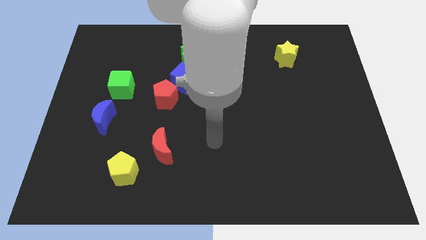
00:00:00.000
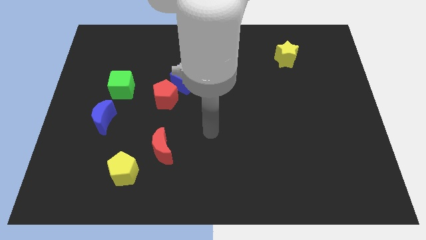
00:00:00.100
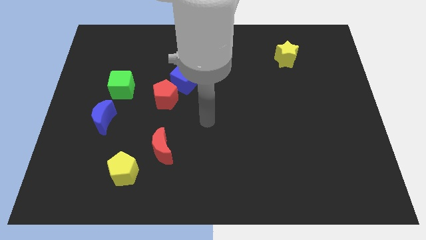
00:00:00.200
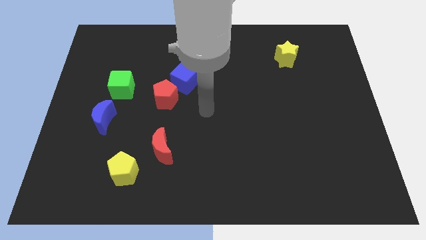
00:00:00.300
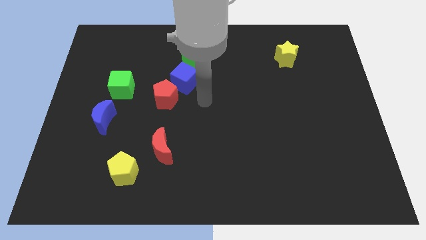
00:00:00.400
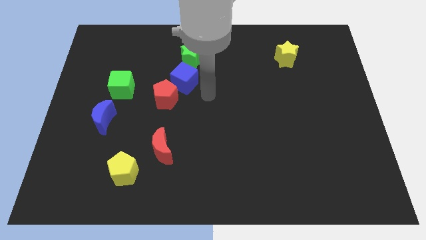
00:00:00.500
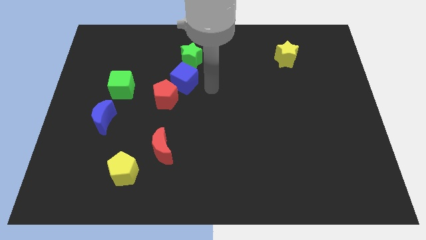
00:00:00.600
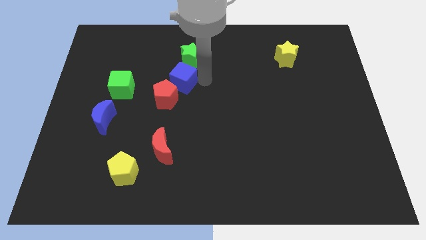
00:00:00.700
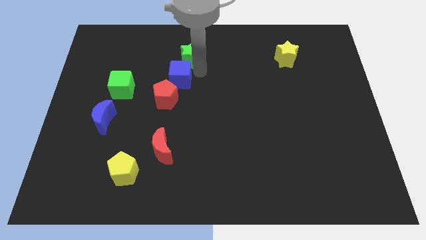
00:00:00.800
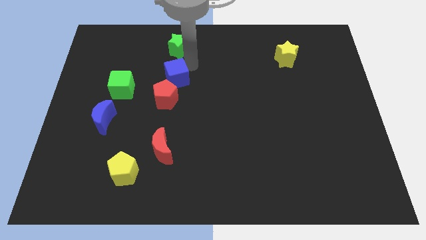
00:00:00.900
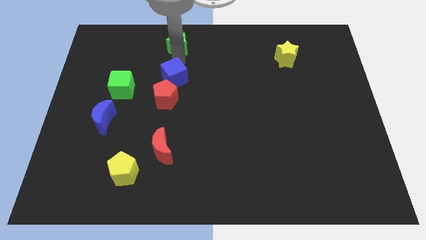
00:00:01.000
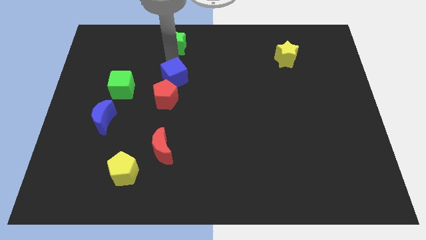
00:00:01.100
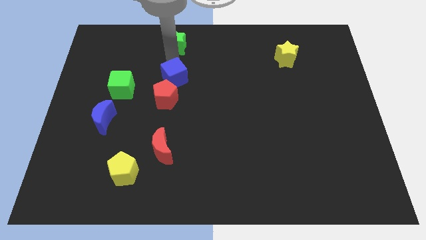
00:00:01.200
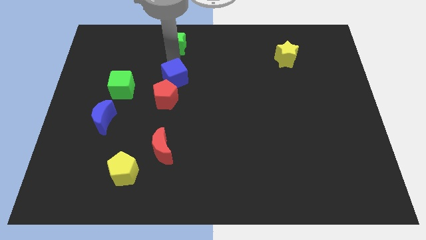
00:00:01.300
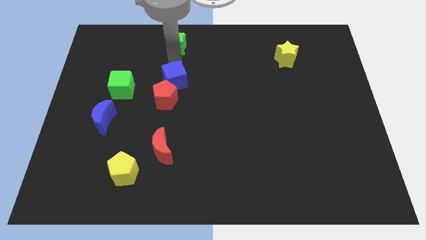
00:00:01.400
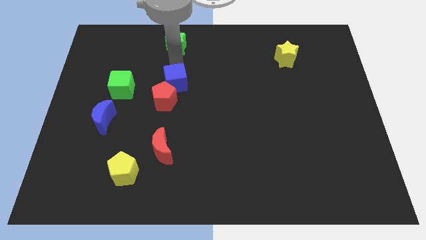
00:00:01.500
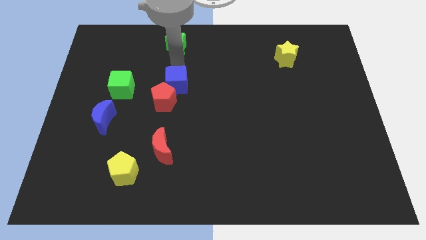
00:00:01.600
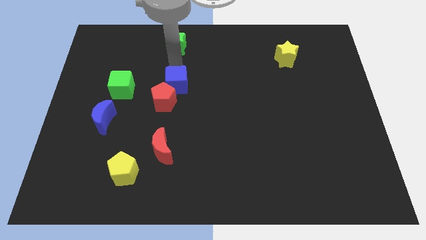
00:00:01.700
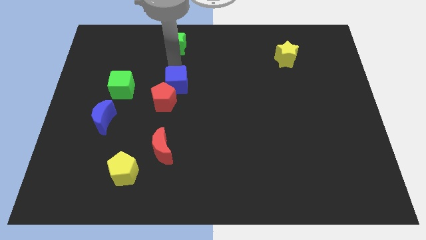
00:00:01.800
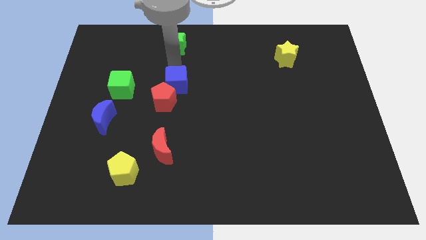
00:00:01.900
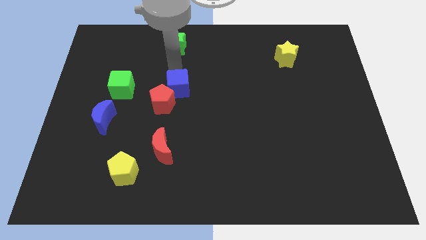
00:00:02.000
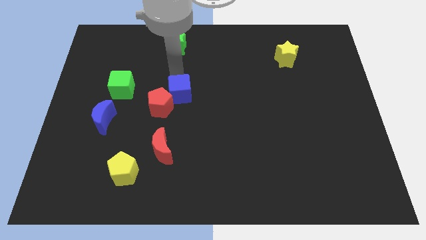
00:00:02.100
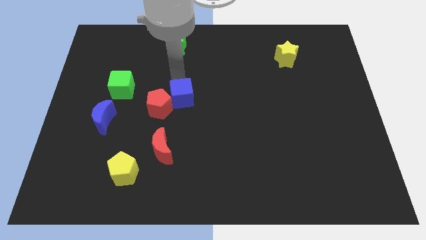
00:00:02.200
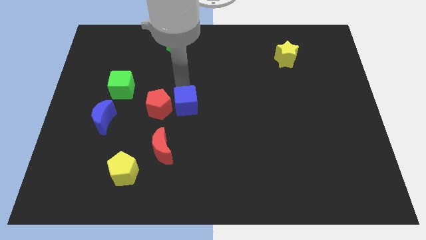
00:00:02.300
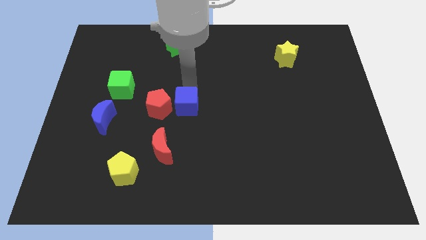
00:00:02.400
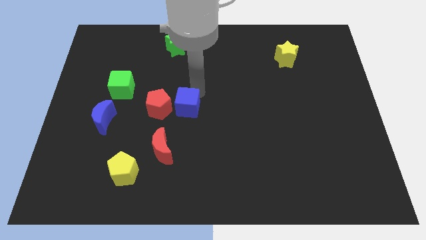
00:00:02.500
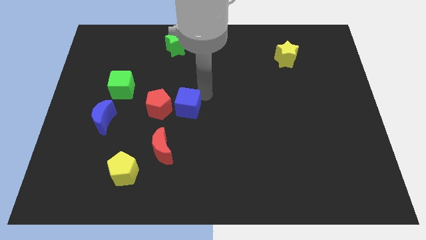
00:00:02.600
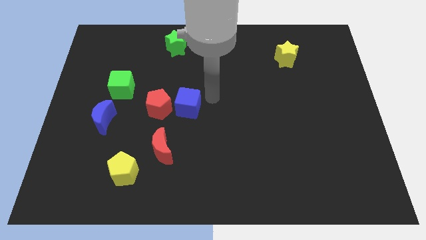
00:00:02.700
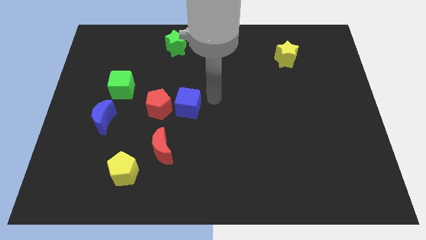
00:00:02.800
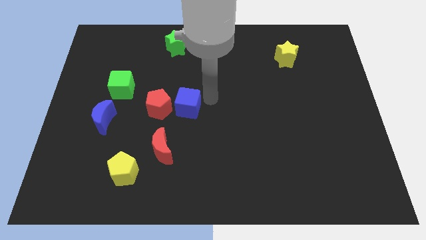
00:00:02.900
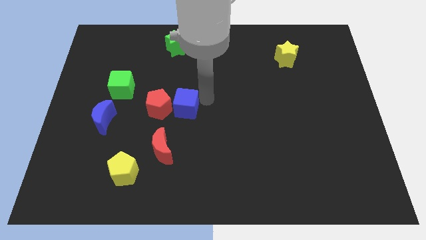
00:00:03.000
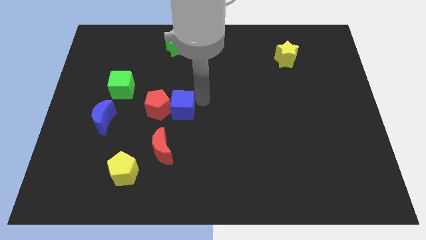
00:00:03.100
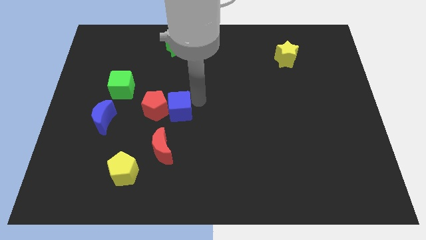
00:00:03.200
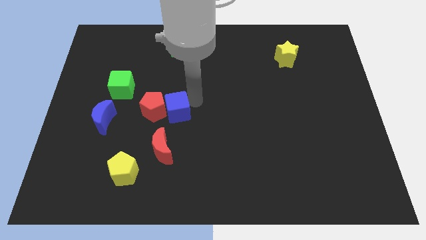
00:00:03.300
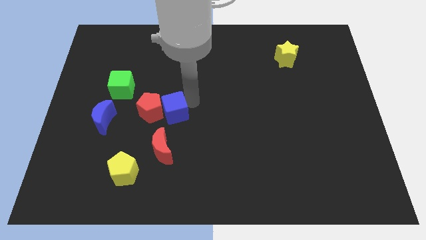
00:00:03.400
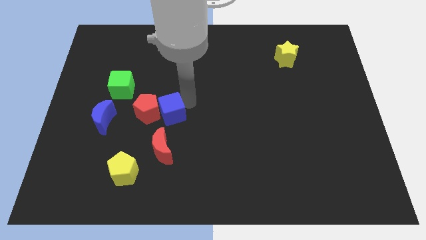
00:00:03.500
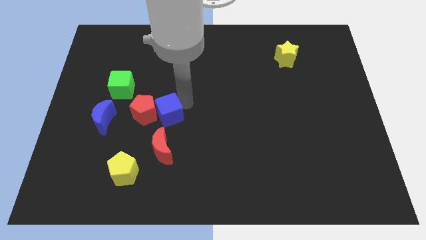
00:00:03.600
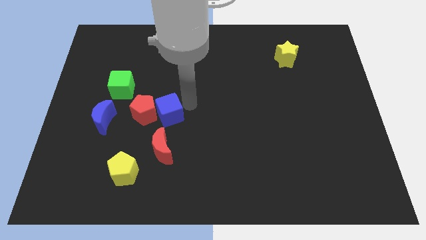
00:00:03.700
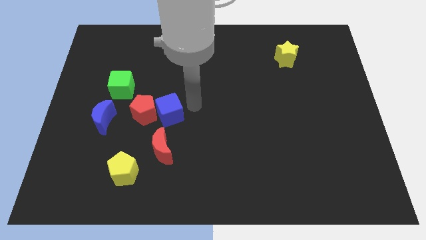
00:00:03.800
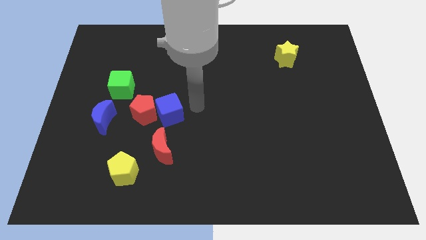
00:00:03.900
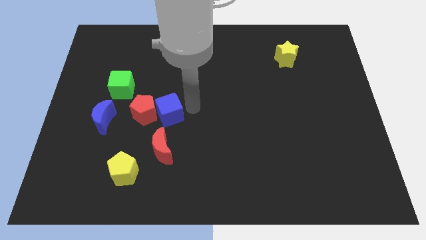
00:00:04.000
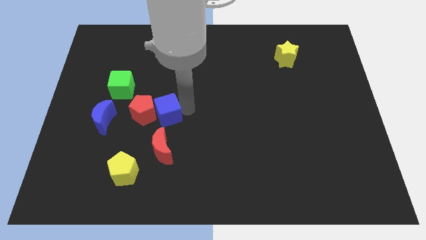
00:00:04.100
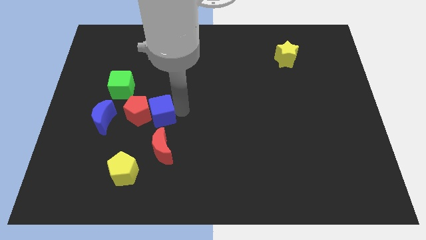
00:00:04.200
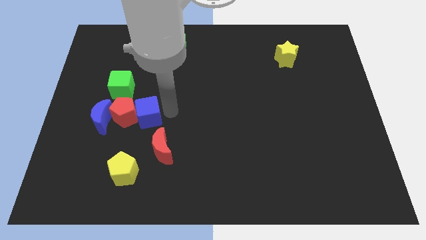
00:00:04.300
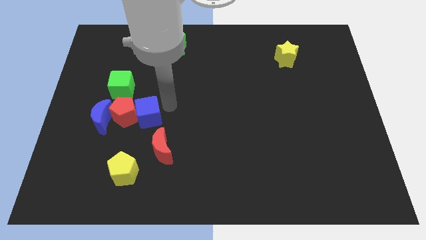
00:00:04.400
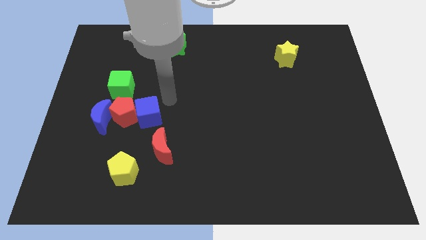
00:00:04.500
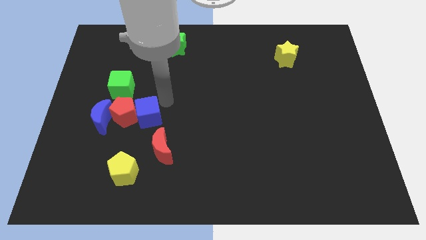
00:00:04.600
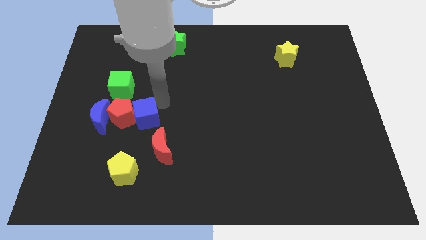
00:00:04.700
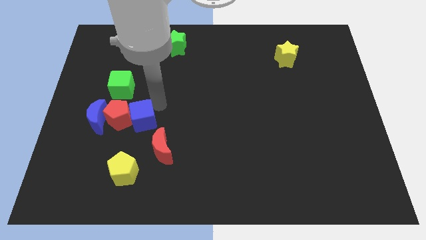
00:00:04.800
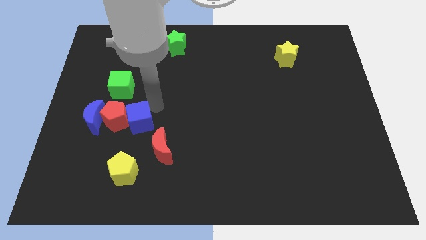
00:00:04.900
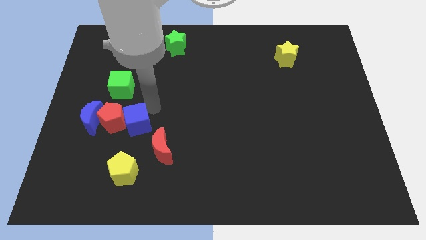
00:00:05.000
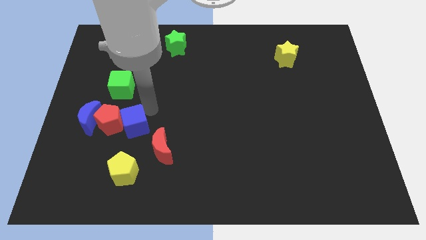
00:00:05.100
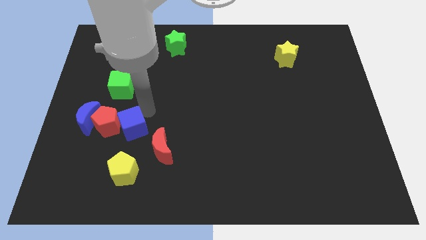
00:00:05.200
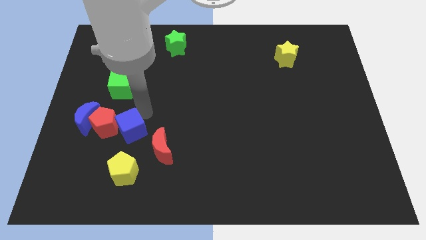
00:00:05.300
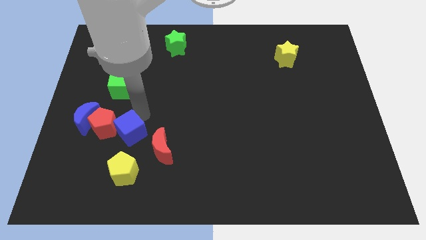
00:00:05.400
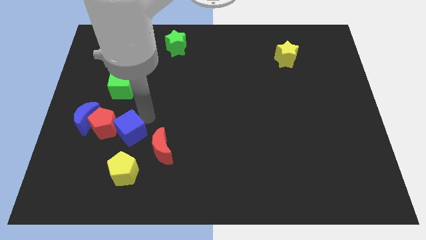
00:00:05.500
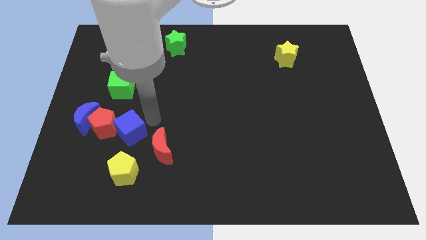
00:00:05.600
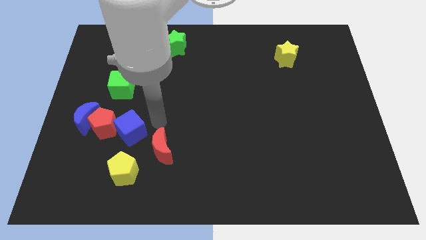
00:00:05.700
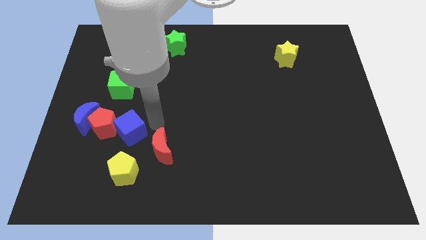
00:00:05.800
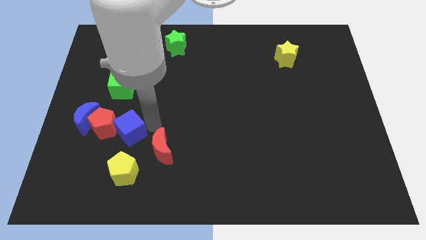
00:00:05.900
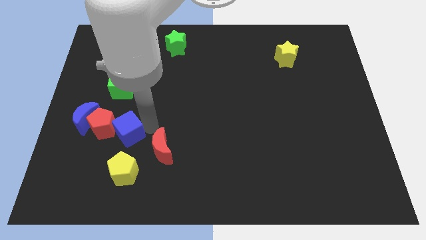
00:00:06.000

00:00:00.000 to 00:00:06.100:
move the blue cube diagonally down and to the right of the blue moon
